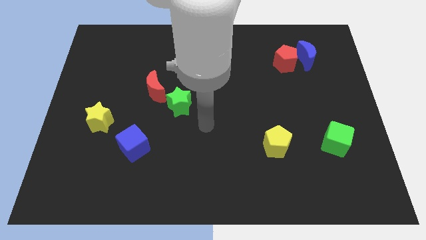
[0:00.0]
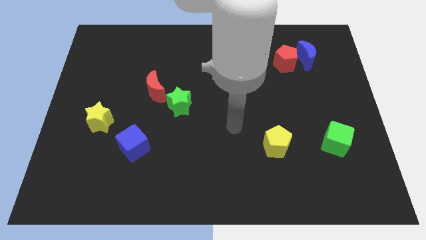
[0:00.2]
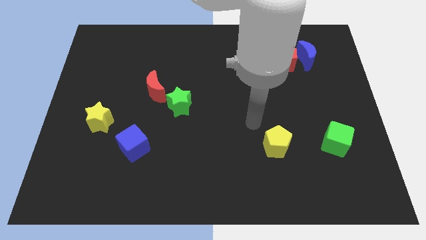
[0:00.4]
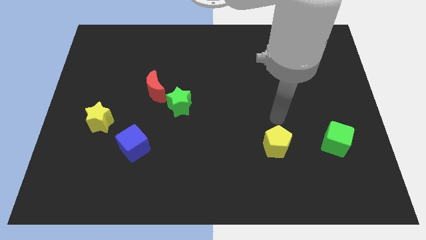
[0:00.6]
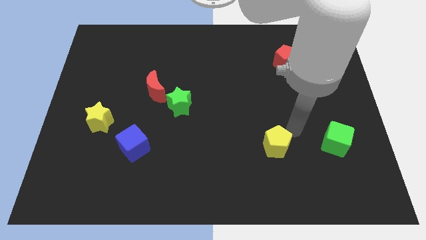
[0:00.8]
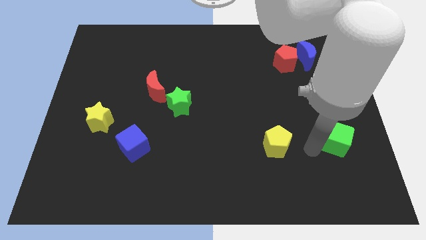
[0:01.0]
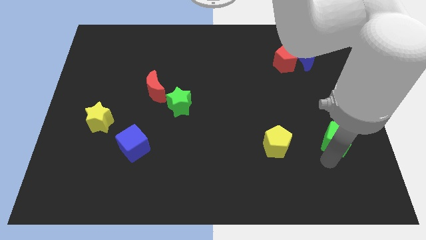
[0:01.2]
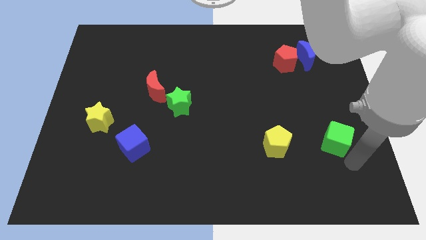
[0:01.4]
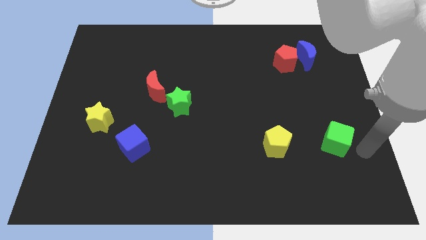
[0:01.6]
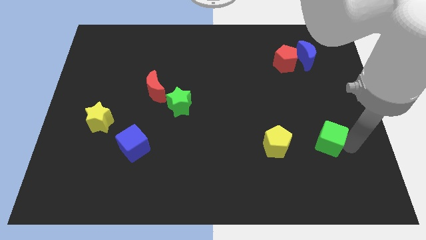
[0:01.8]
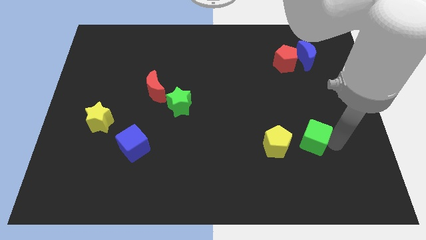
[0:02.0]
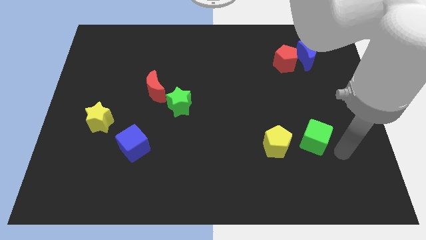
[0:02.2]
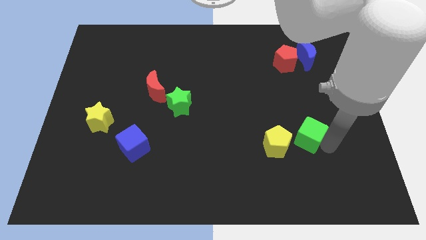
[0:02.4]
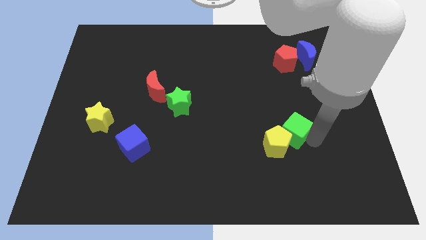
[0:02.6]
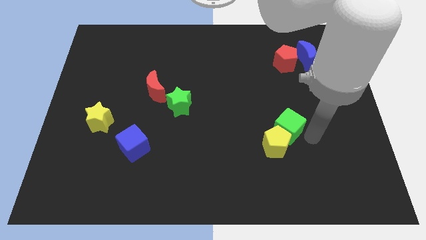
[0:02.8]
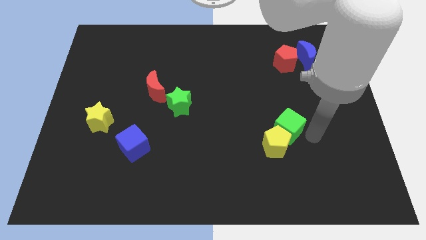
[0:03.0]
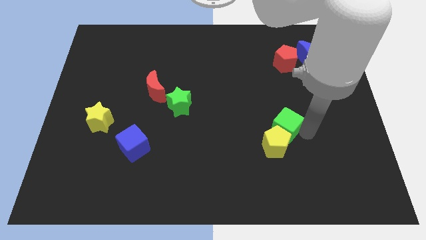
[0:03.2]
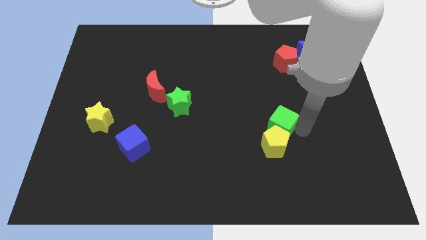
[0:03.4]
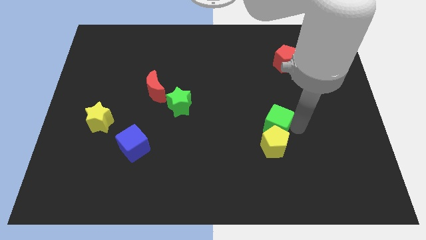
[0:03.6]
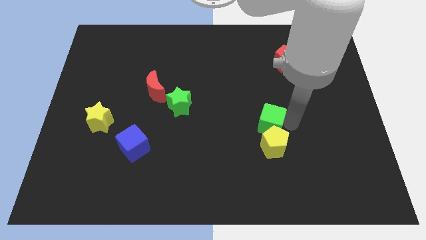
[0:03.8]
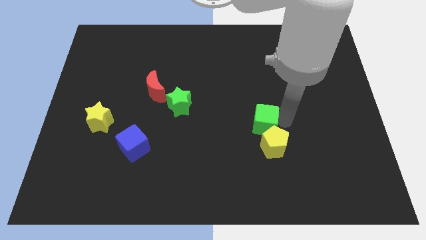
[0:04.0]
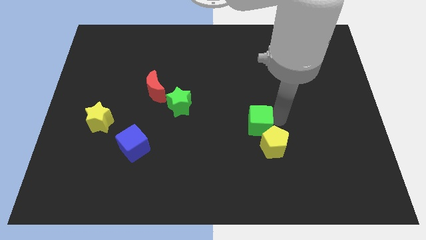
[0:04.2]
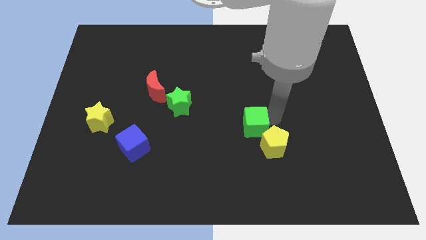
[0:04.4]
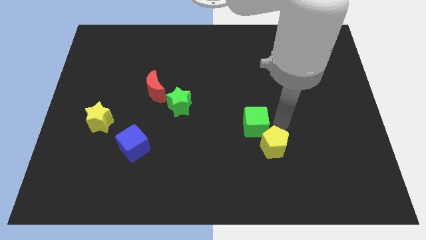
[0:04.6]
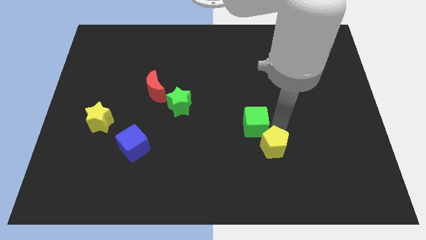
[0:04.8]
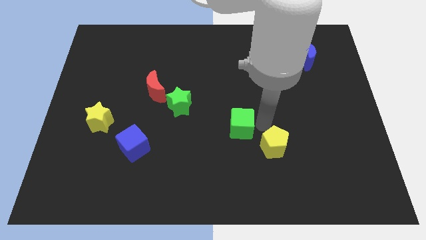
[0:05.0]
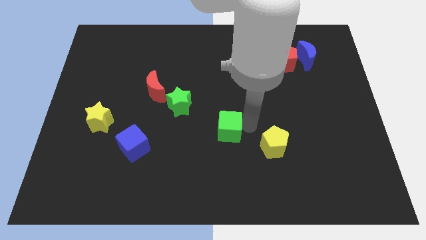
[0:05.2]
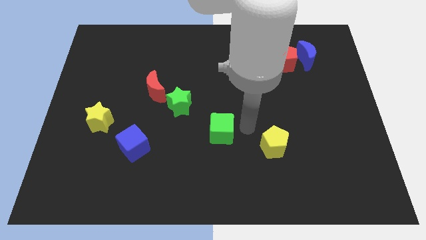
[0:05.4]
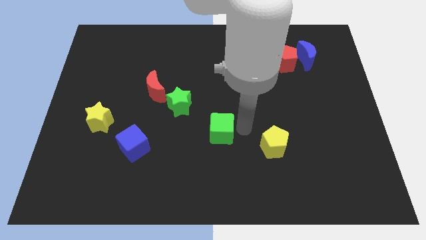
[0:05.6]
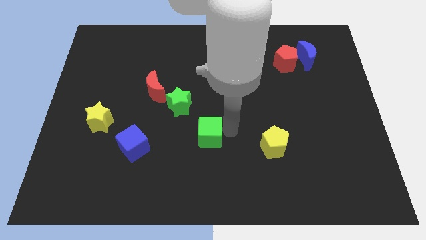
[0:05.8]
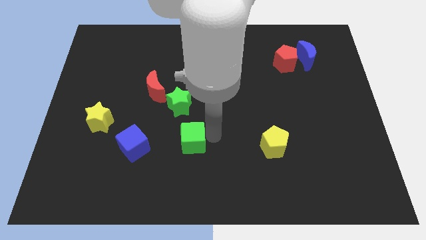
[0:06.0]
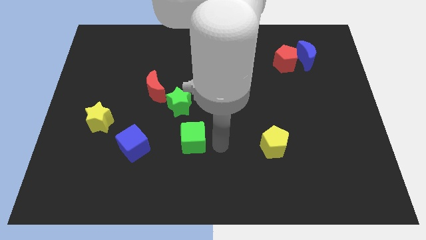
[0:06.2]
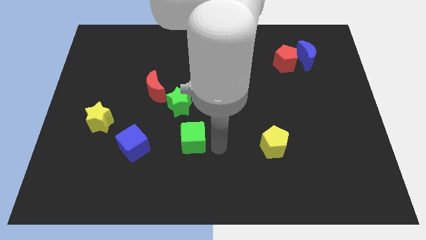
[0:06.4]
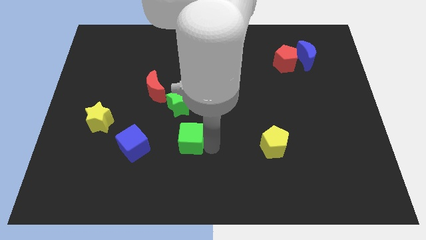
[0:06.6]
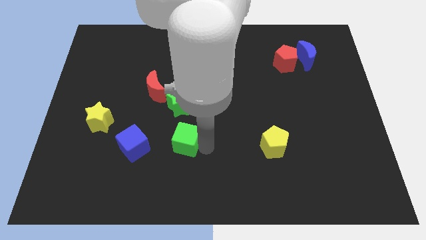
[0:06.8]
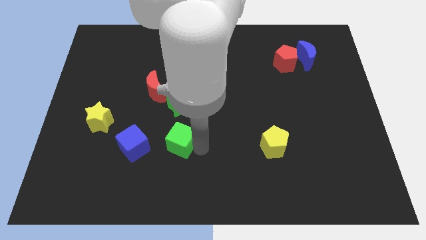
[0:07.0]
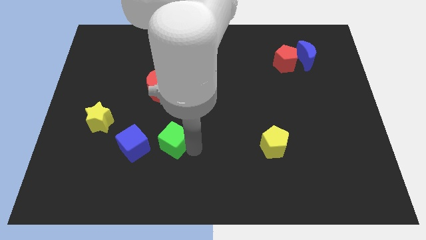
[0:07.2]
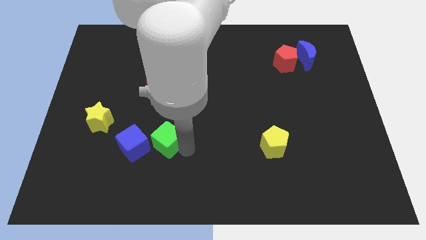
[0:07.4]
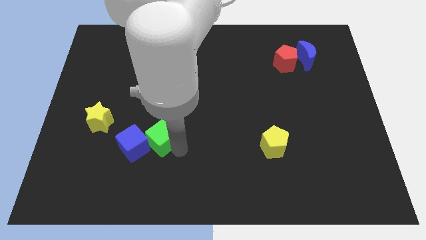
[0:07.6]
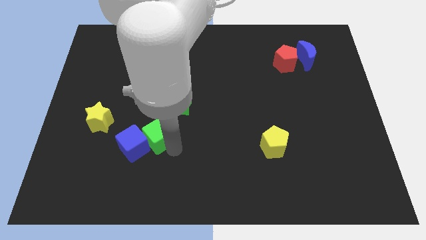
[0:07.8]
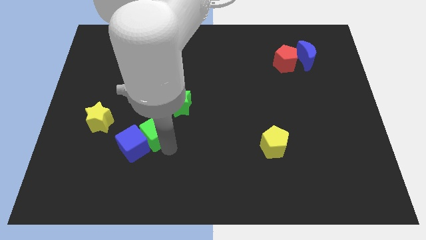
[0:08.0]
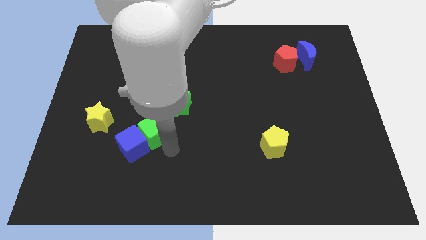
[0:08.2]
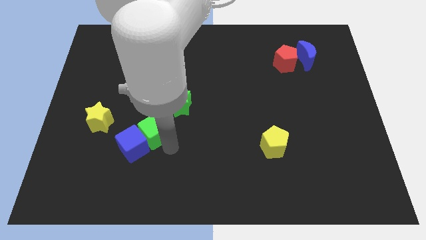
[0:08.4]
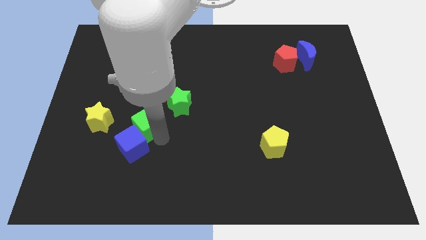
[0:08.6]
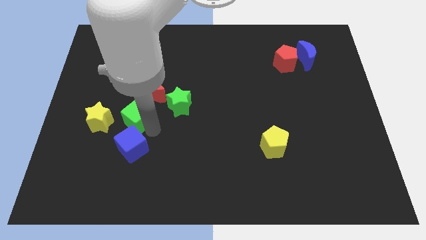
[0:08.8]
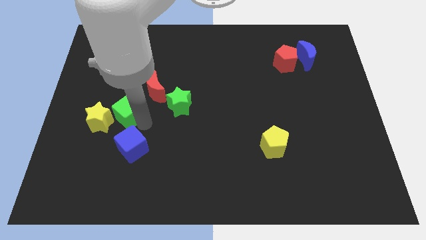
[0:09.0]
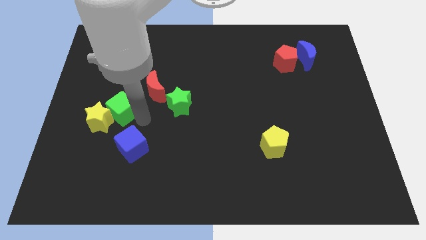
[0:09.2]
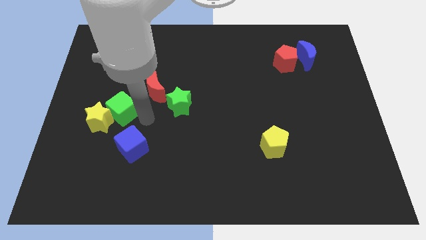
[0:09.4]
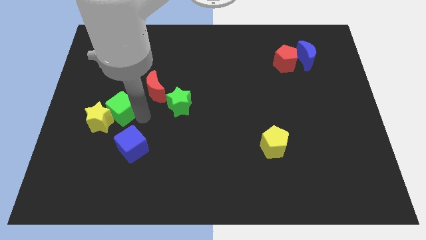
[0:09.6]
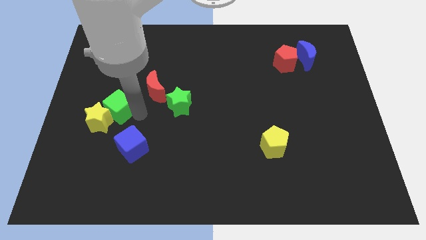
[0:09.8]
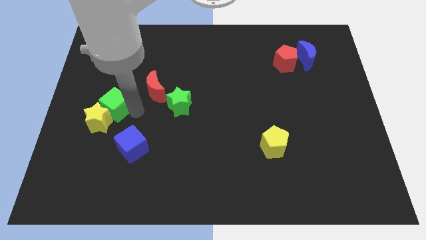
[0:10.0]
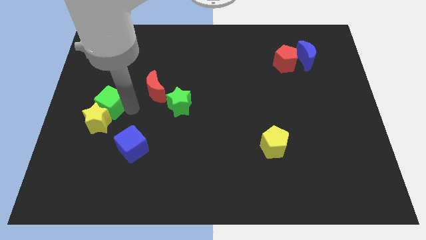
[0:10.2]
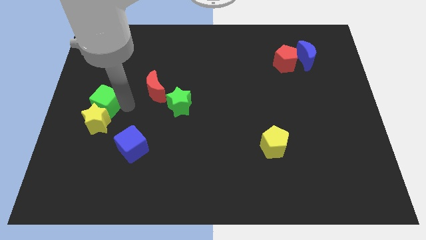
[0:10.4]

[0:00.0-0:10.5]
slide the green cube to the left side
